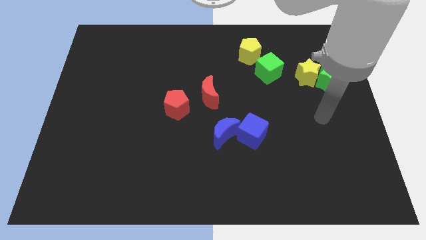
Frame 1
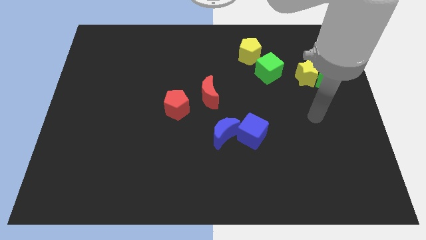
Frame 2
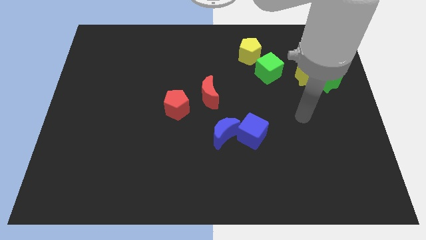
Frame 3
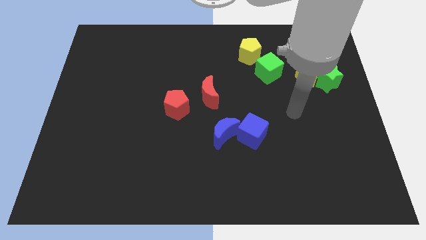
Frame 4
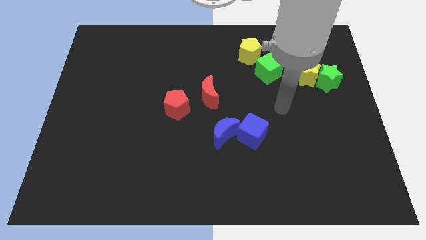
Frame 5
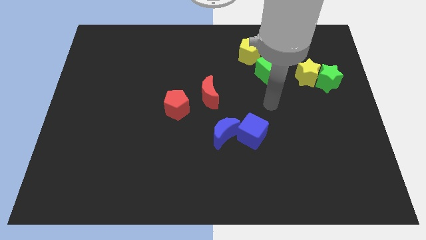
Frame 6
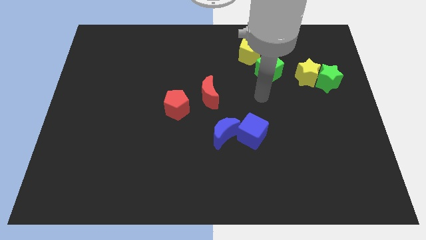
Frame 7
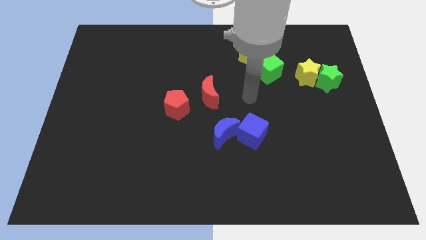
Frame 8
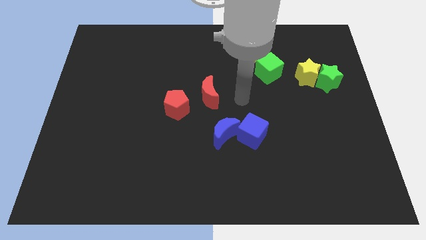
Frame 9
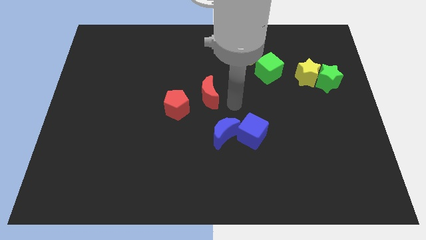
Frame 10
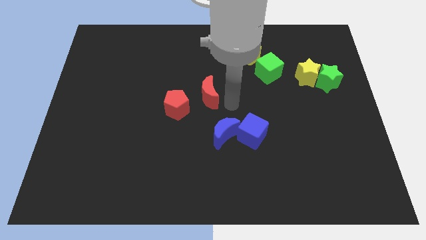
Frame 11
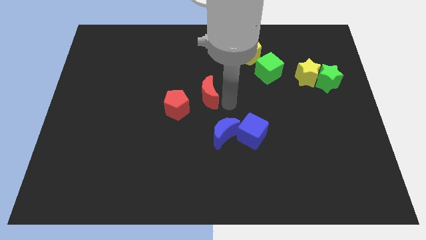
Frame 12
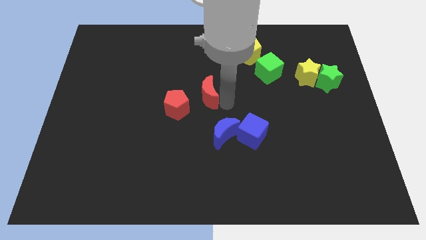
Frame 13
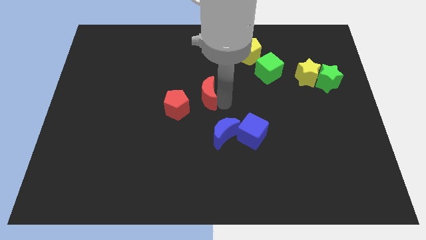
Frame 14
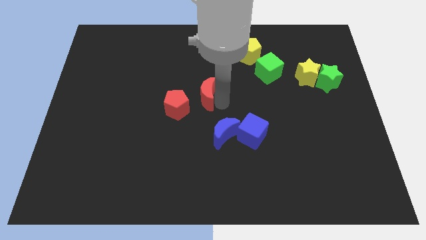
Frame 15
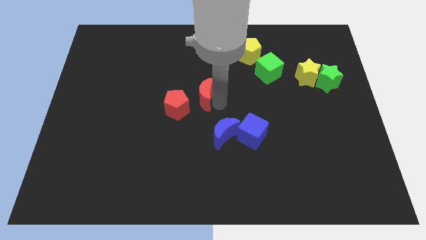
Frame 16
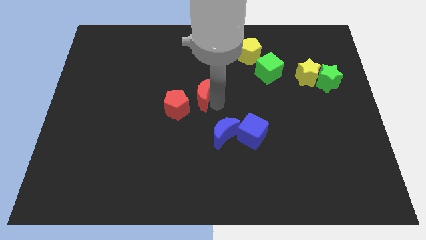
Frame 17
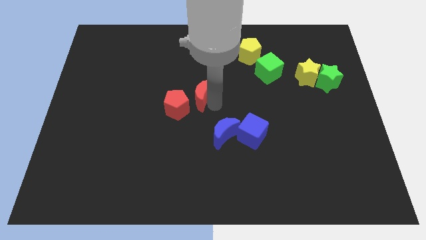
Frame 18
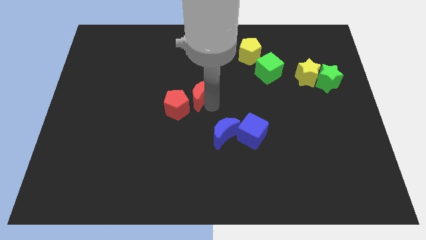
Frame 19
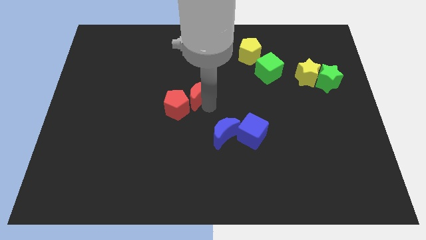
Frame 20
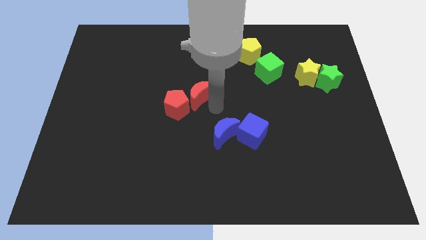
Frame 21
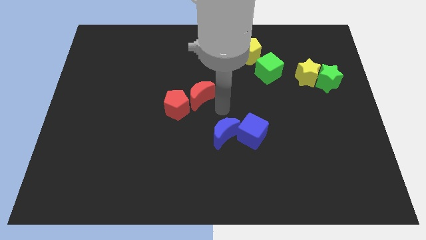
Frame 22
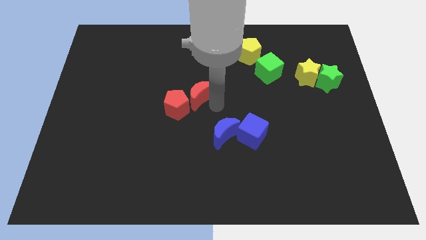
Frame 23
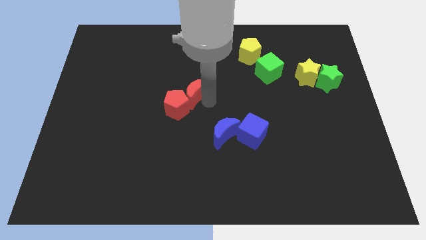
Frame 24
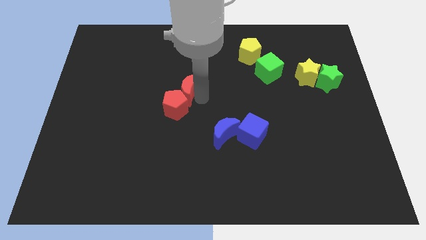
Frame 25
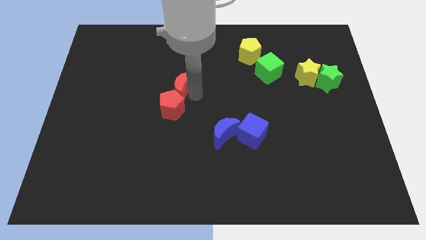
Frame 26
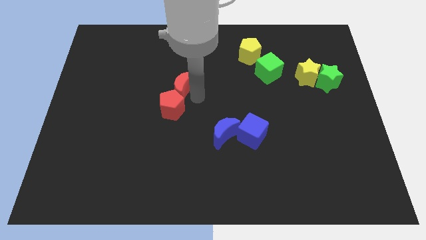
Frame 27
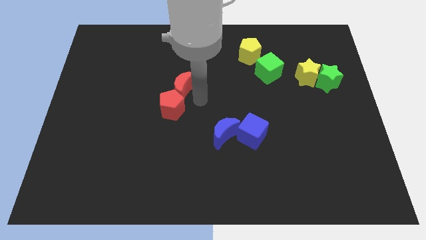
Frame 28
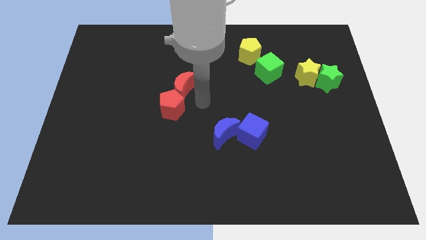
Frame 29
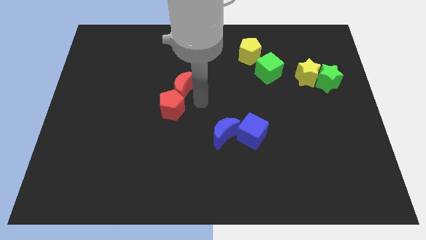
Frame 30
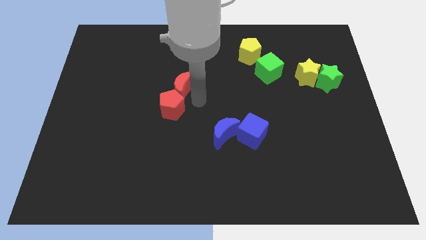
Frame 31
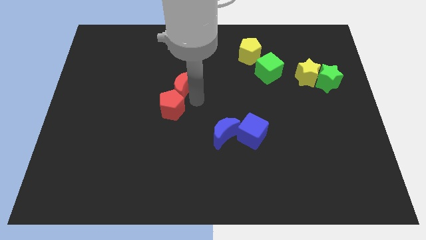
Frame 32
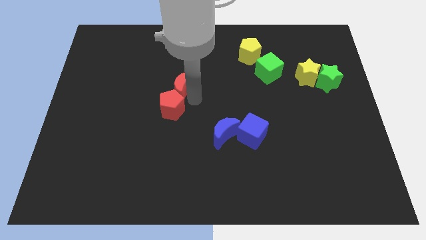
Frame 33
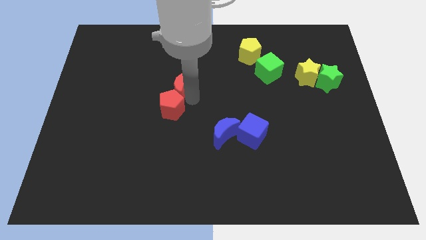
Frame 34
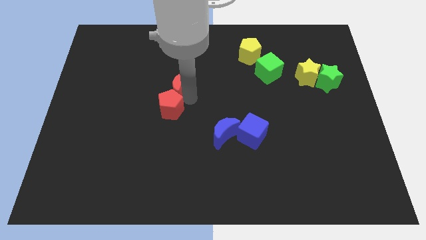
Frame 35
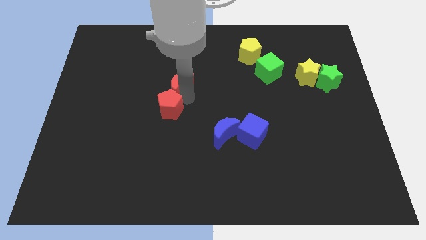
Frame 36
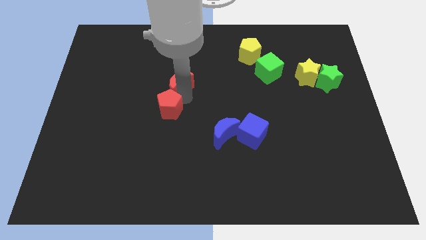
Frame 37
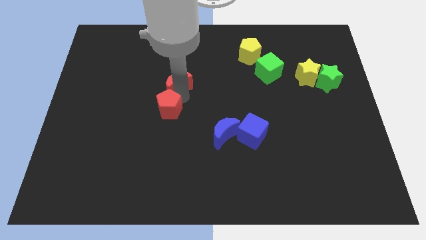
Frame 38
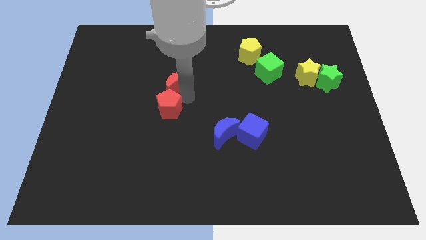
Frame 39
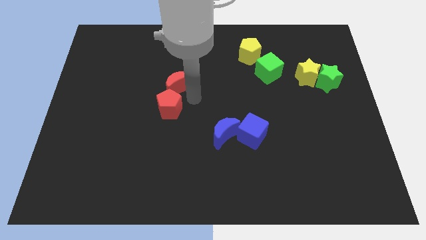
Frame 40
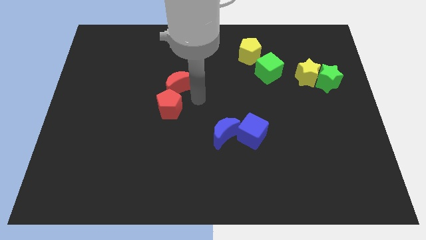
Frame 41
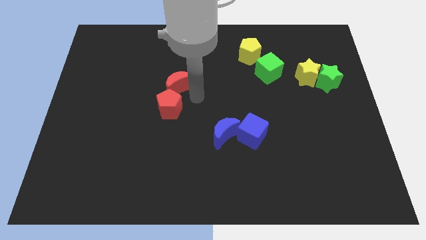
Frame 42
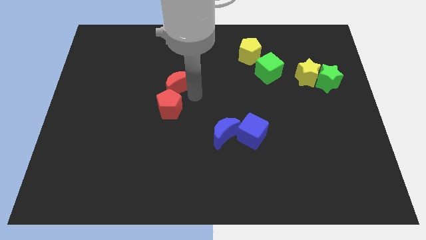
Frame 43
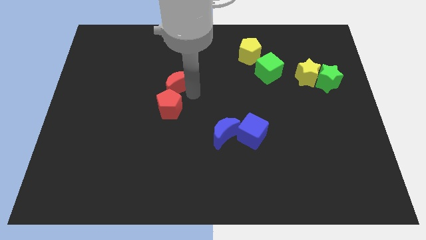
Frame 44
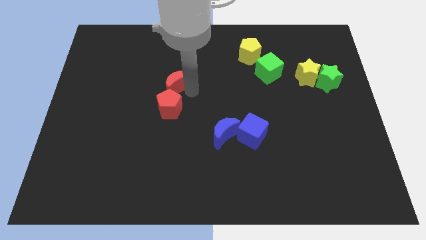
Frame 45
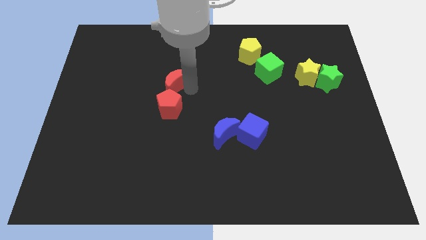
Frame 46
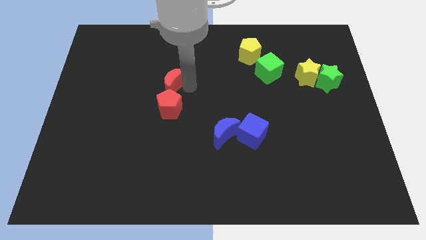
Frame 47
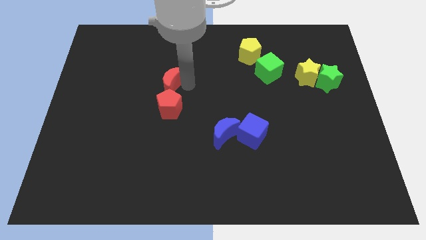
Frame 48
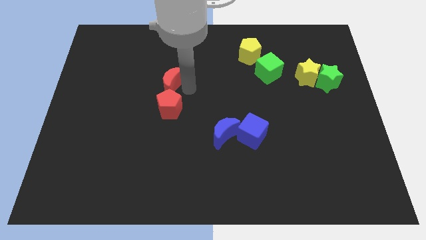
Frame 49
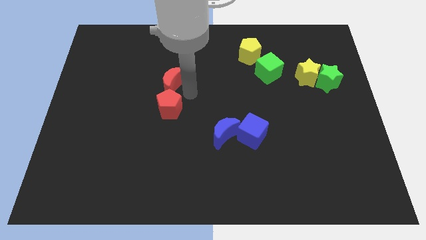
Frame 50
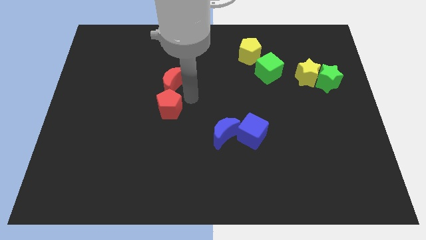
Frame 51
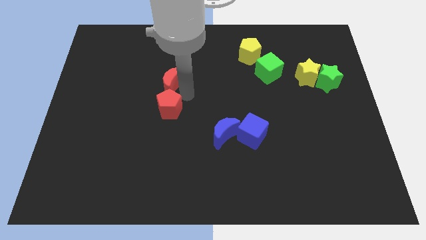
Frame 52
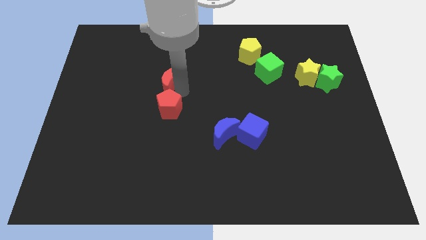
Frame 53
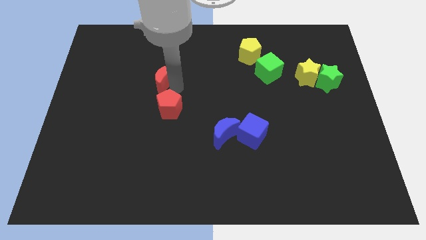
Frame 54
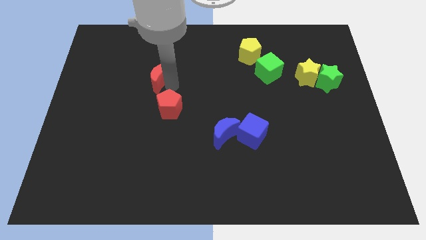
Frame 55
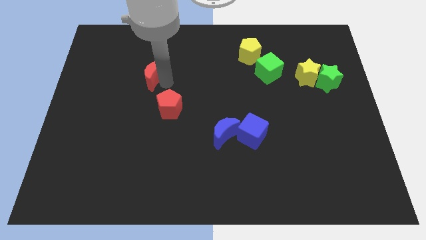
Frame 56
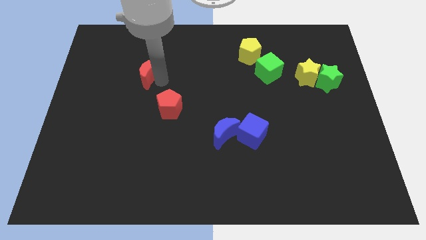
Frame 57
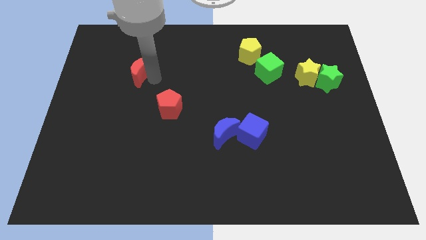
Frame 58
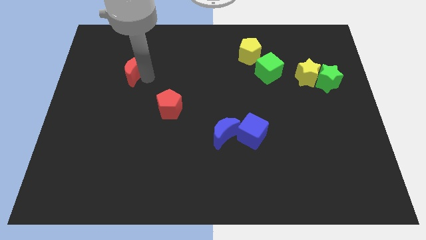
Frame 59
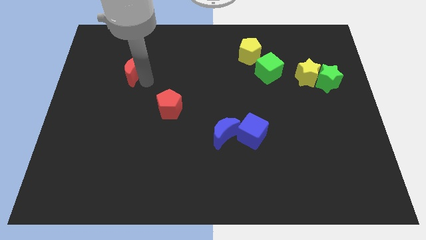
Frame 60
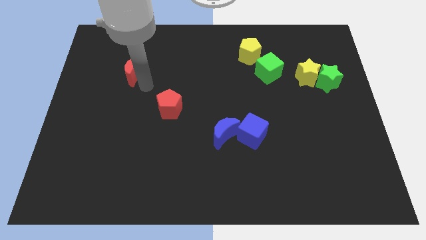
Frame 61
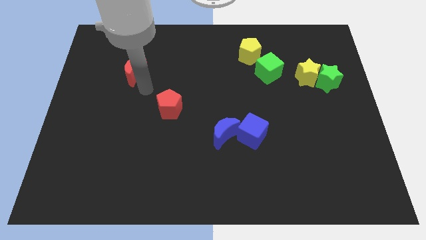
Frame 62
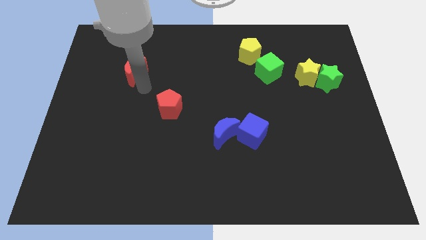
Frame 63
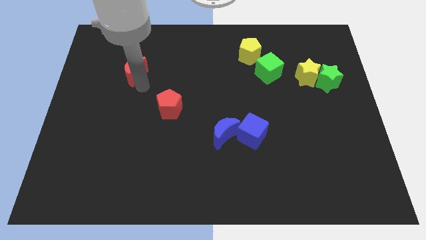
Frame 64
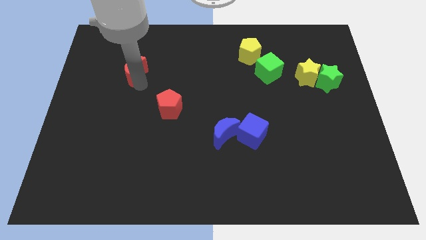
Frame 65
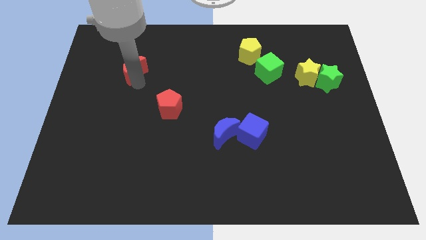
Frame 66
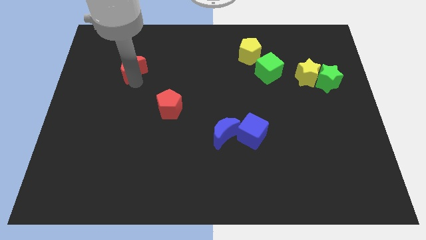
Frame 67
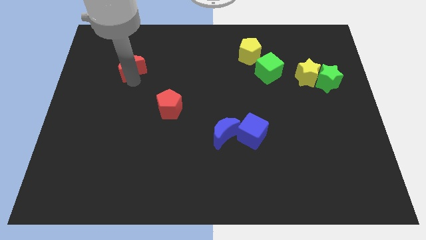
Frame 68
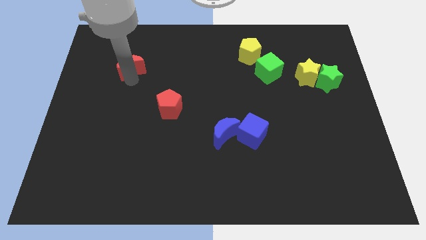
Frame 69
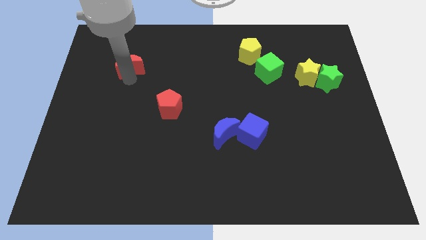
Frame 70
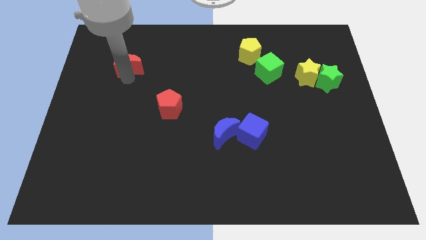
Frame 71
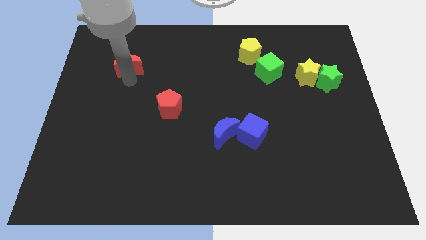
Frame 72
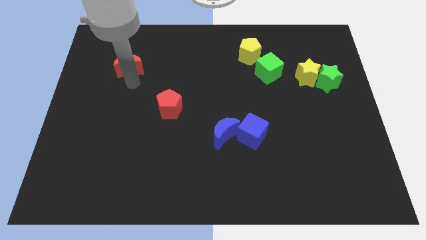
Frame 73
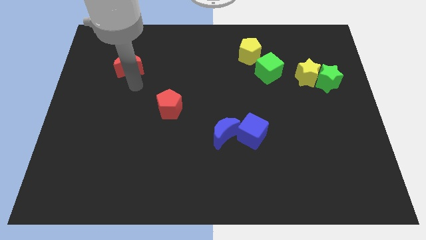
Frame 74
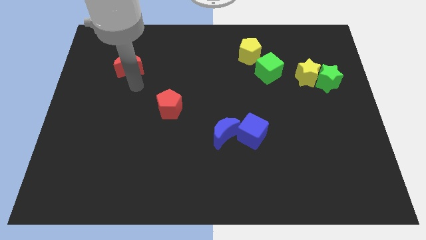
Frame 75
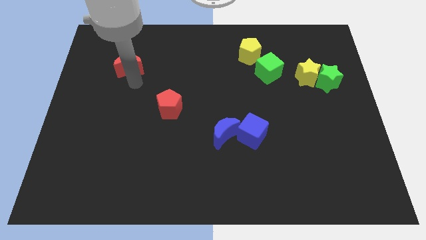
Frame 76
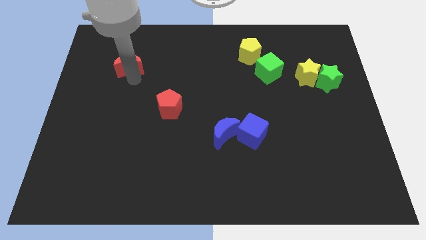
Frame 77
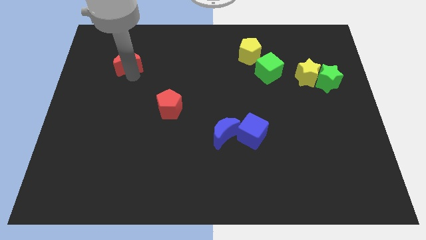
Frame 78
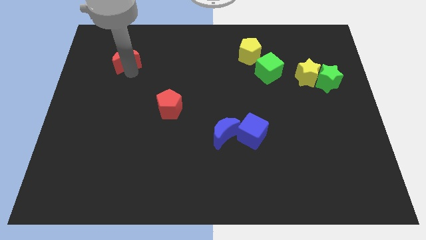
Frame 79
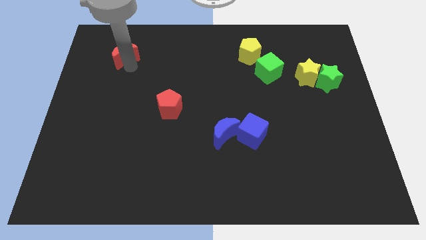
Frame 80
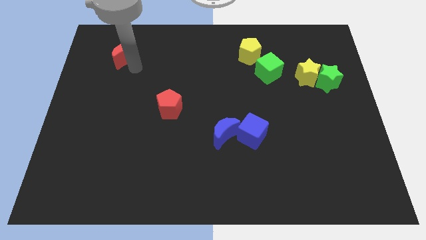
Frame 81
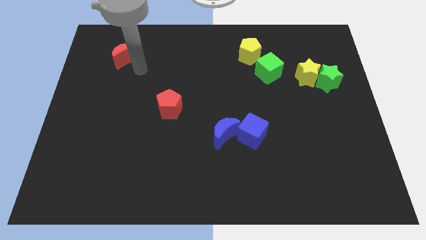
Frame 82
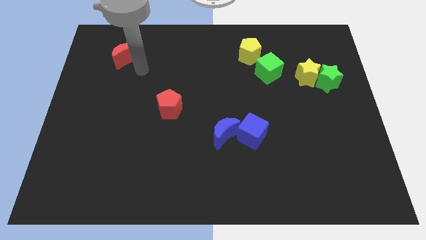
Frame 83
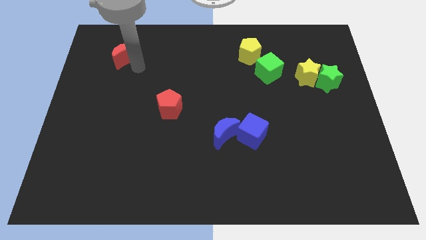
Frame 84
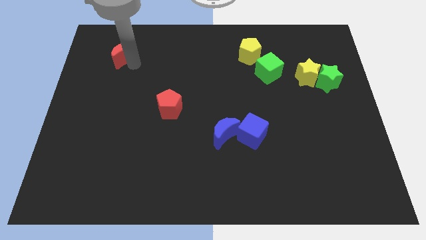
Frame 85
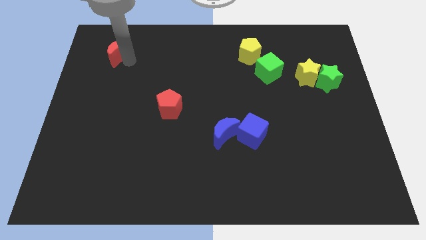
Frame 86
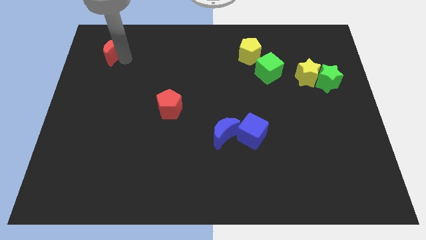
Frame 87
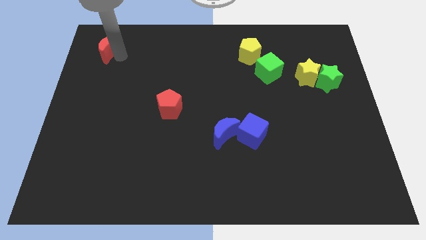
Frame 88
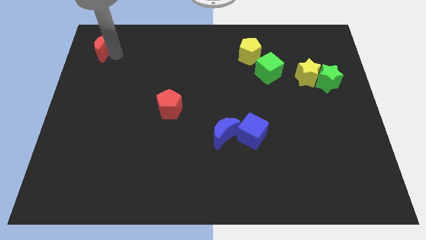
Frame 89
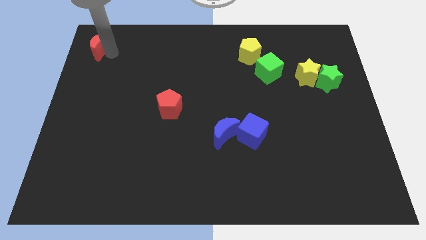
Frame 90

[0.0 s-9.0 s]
push the red moon to the upper left corner
